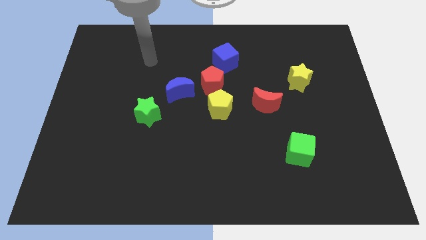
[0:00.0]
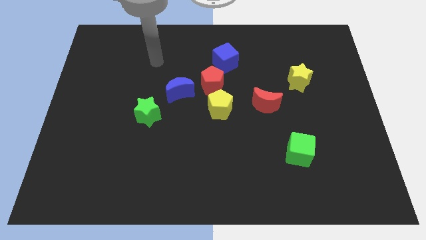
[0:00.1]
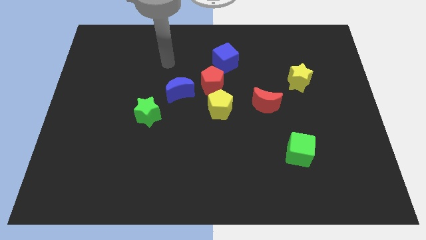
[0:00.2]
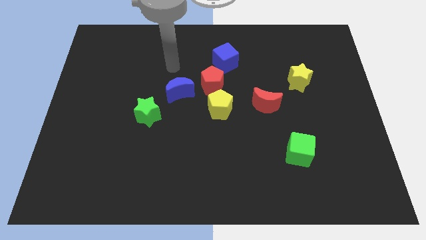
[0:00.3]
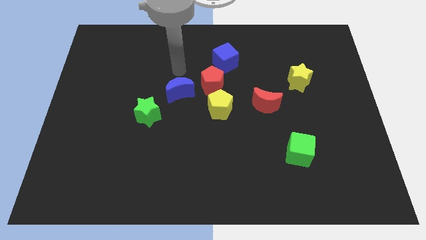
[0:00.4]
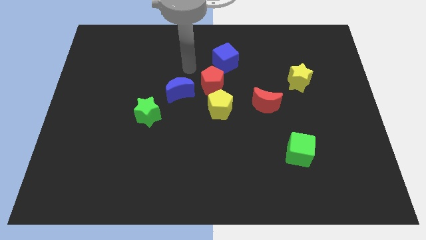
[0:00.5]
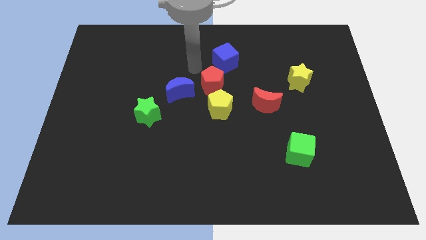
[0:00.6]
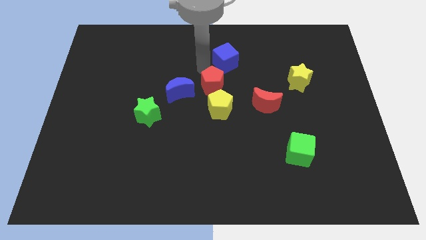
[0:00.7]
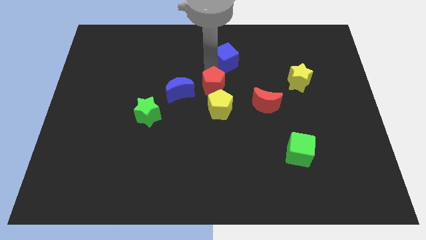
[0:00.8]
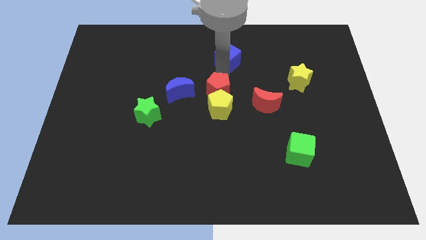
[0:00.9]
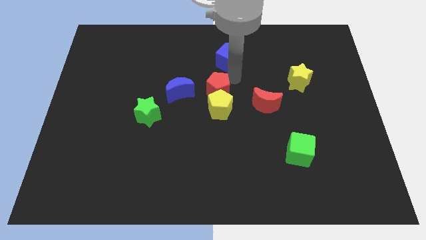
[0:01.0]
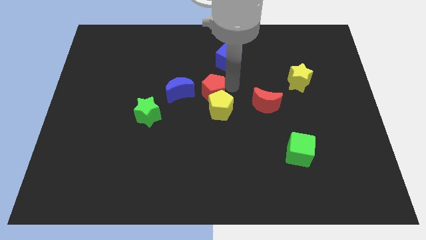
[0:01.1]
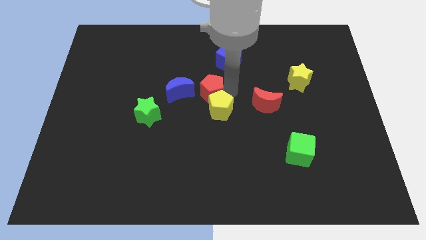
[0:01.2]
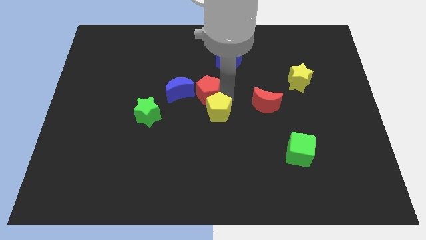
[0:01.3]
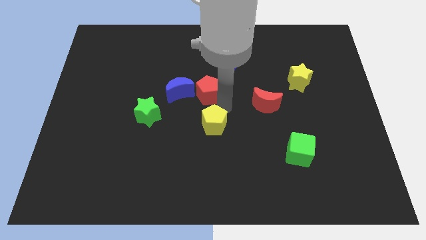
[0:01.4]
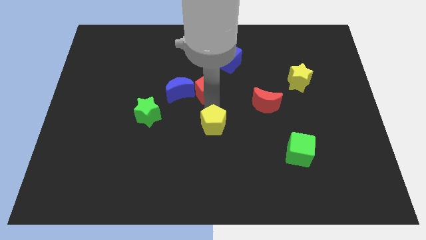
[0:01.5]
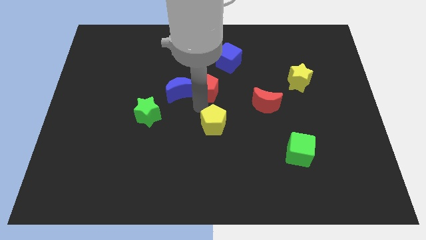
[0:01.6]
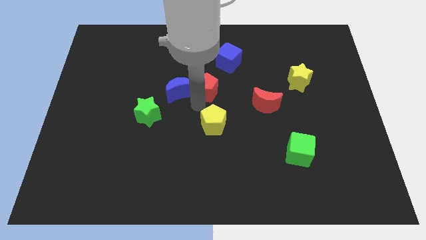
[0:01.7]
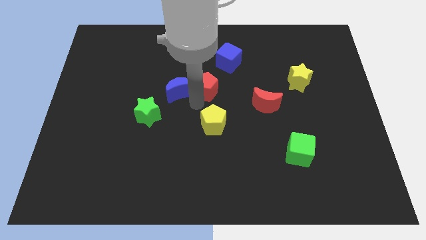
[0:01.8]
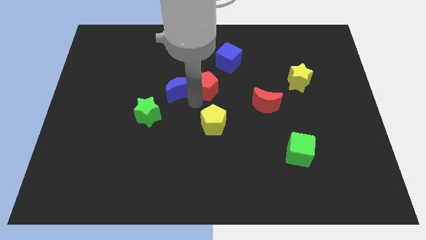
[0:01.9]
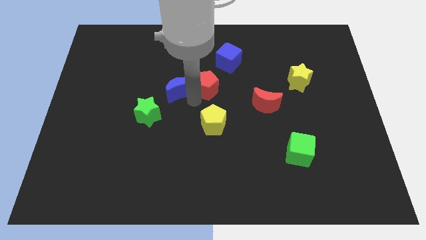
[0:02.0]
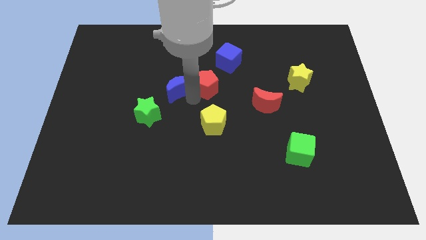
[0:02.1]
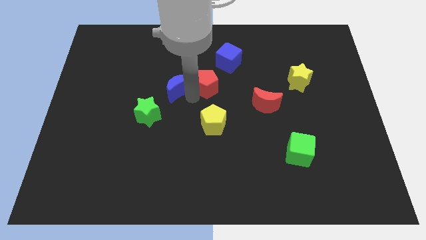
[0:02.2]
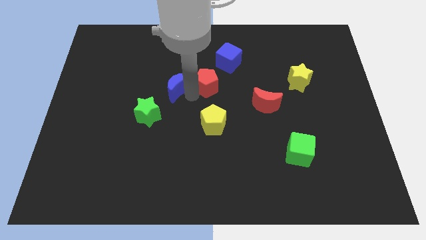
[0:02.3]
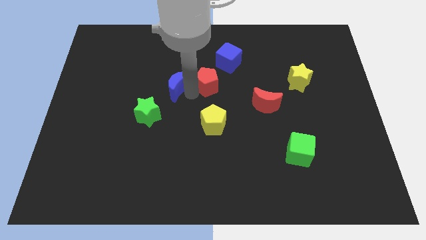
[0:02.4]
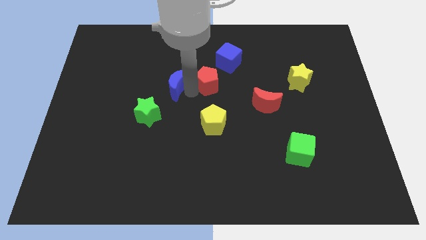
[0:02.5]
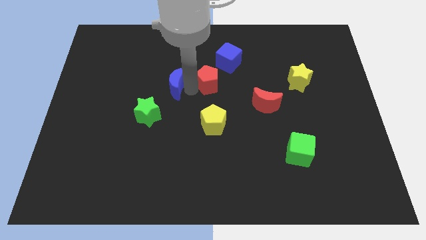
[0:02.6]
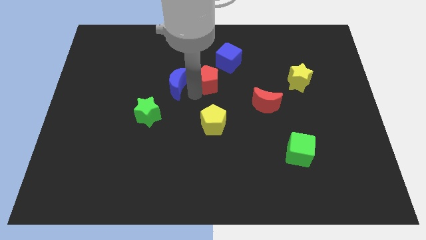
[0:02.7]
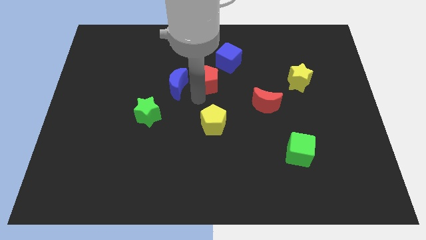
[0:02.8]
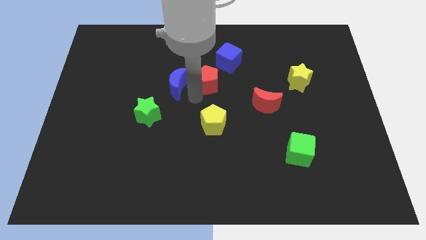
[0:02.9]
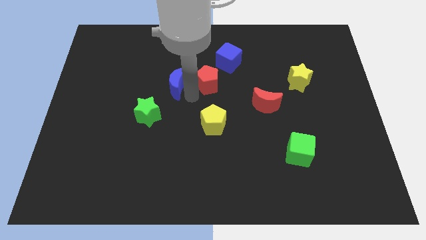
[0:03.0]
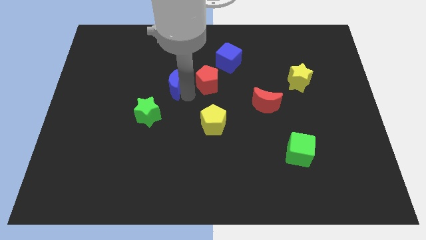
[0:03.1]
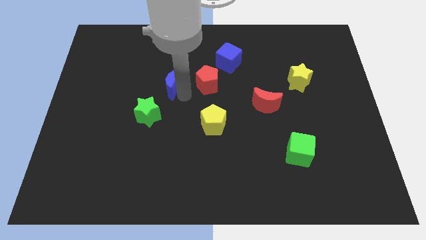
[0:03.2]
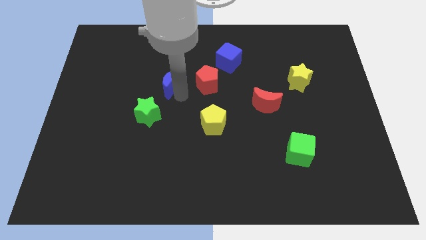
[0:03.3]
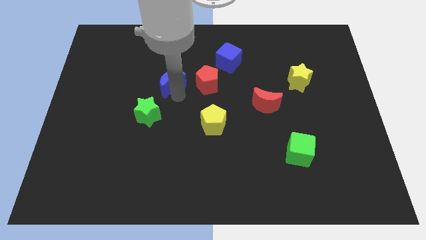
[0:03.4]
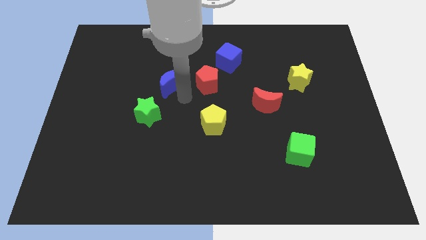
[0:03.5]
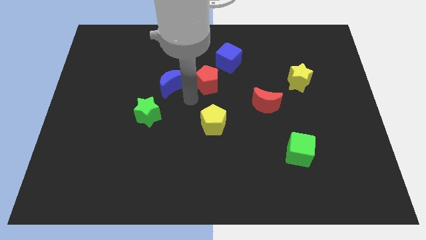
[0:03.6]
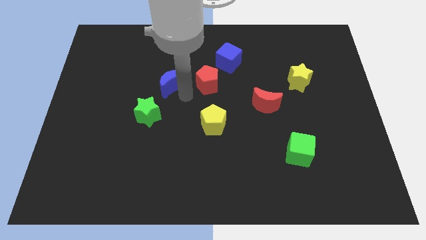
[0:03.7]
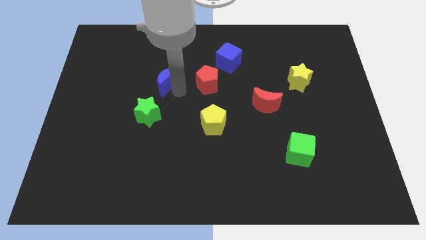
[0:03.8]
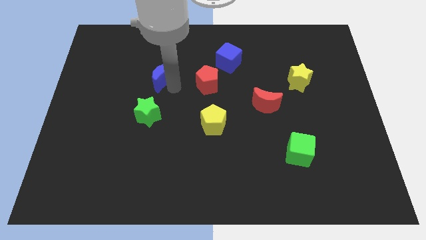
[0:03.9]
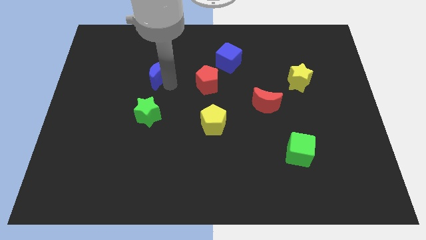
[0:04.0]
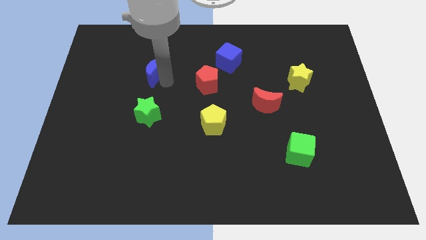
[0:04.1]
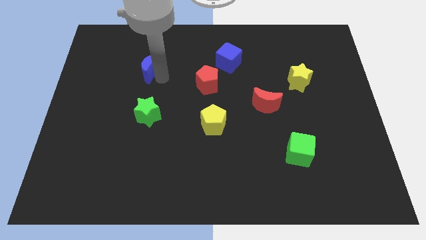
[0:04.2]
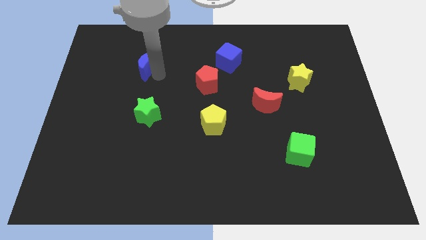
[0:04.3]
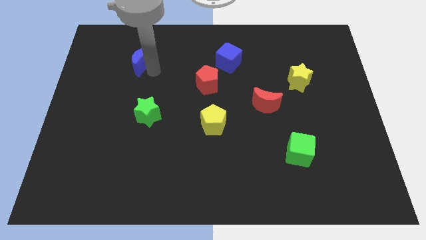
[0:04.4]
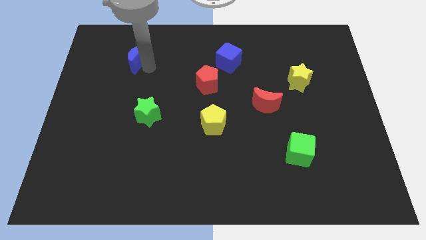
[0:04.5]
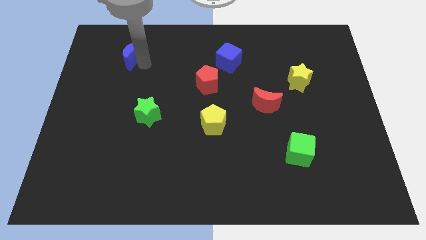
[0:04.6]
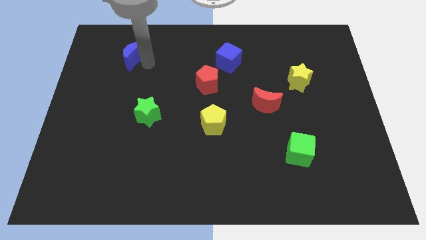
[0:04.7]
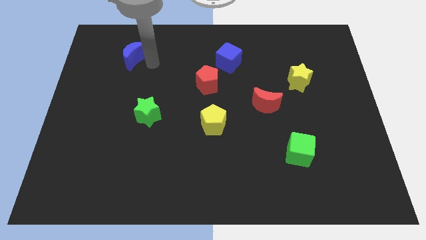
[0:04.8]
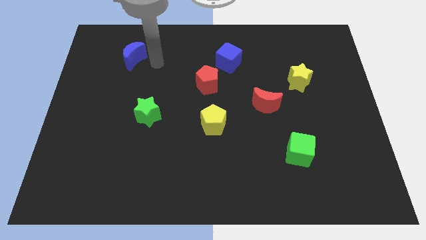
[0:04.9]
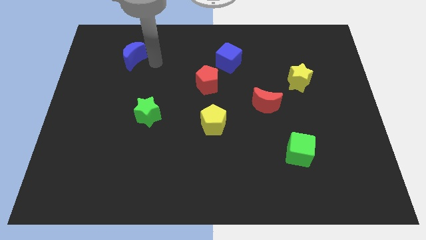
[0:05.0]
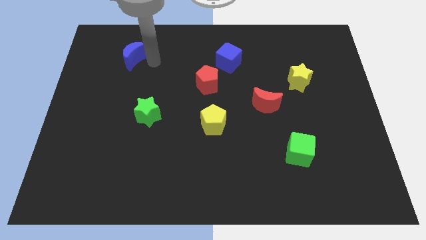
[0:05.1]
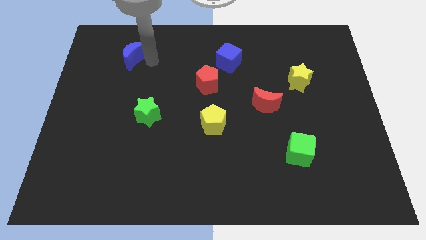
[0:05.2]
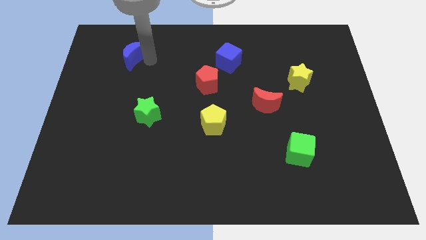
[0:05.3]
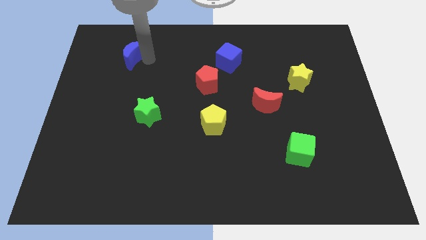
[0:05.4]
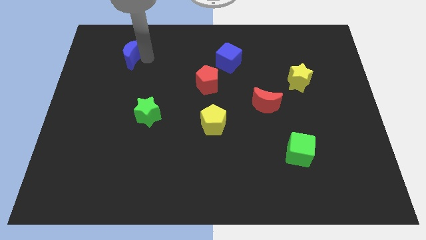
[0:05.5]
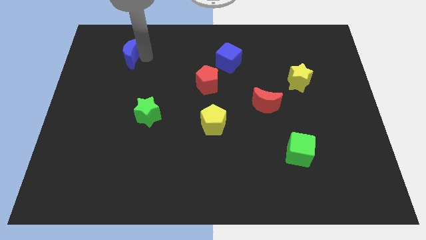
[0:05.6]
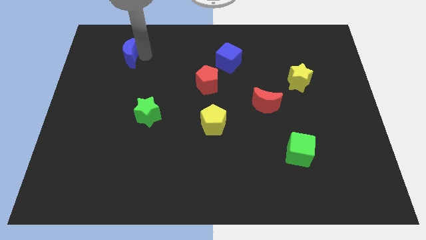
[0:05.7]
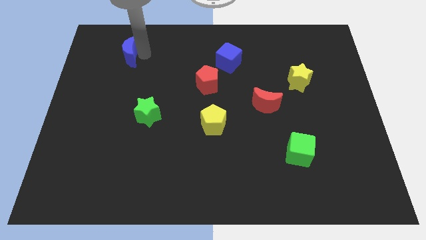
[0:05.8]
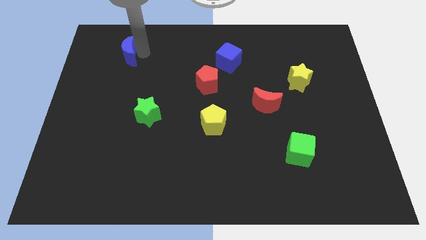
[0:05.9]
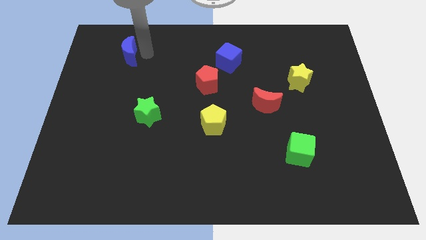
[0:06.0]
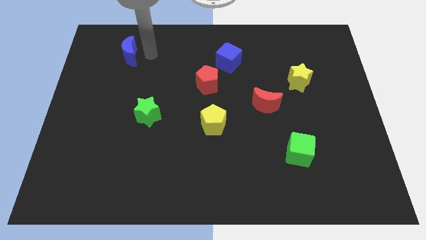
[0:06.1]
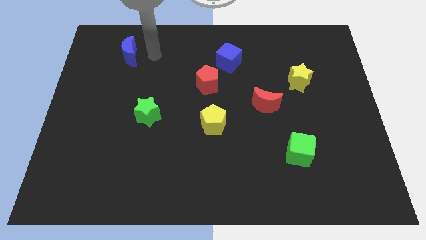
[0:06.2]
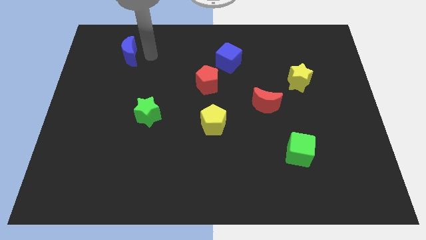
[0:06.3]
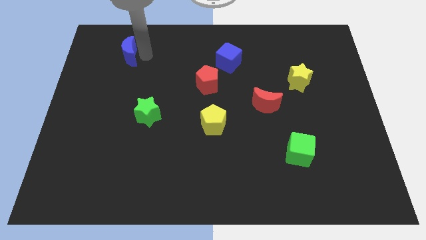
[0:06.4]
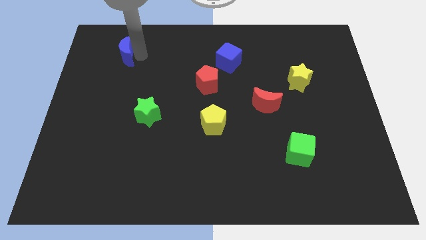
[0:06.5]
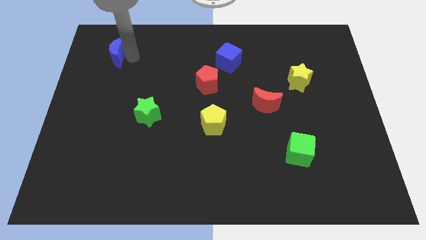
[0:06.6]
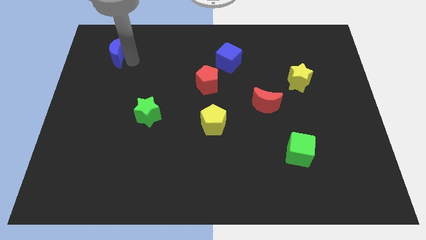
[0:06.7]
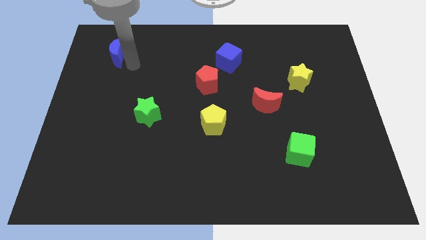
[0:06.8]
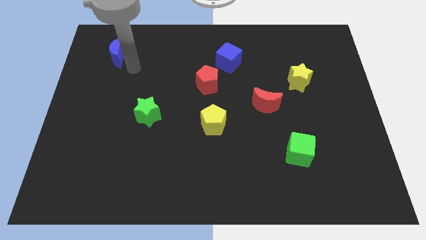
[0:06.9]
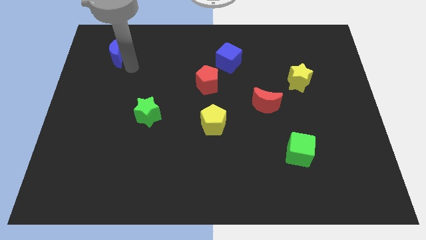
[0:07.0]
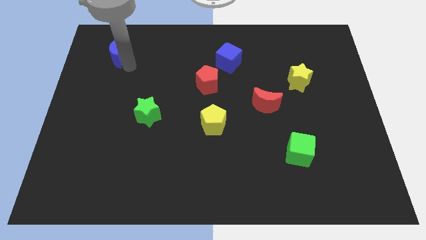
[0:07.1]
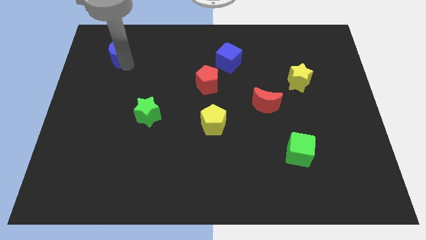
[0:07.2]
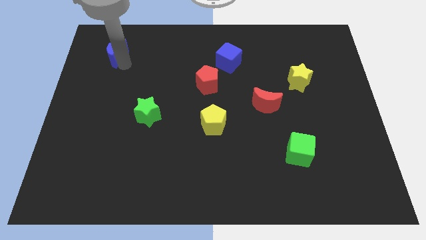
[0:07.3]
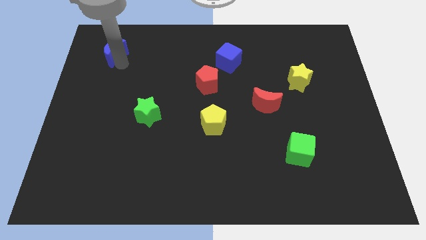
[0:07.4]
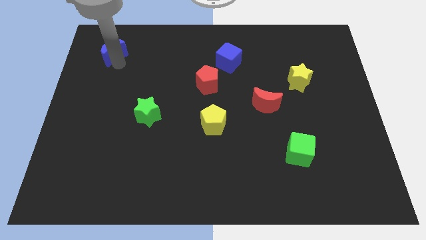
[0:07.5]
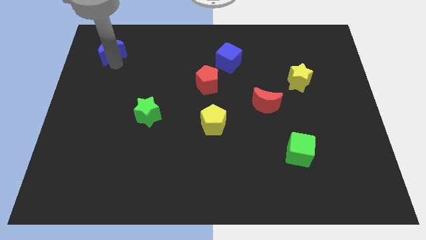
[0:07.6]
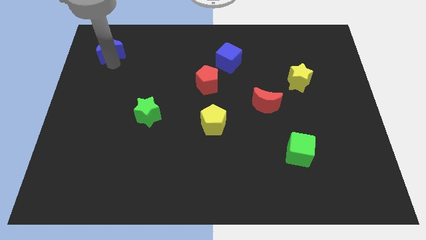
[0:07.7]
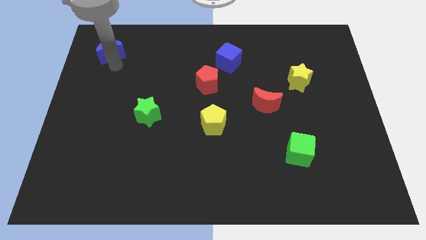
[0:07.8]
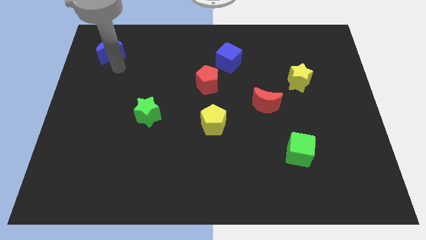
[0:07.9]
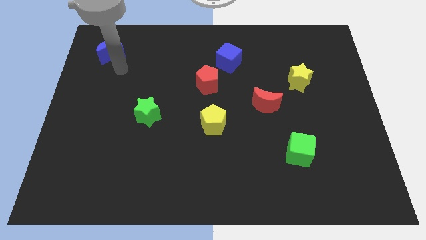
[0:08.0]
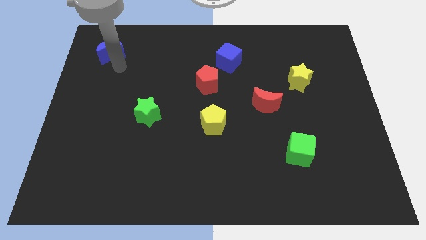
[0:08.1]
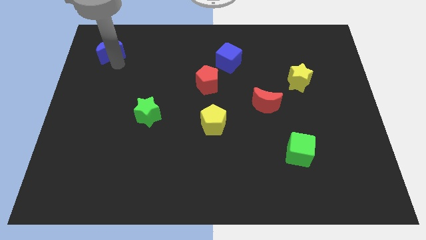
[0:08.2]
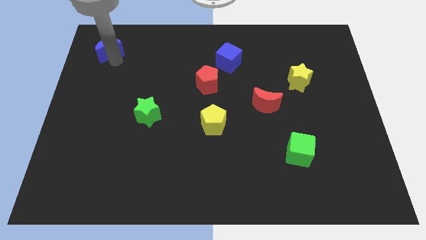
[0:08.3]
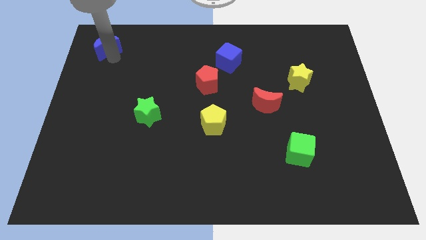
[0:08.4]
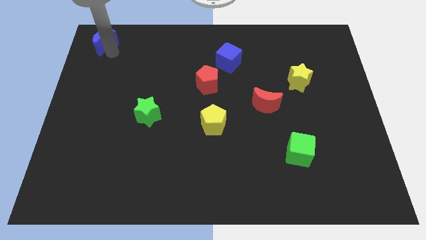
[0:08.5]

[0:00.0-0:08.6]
move the blue moon to the top left corner
